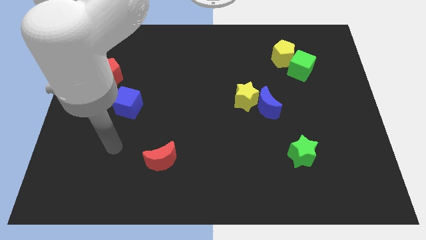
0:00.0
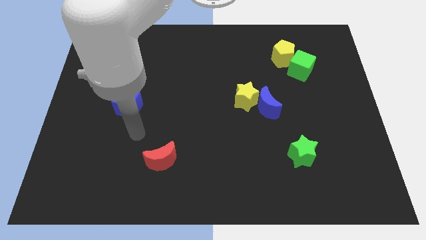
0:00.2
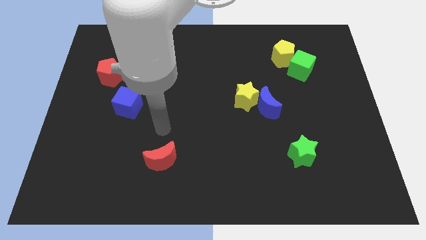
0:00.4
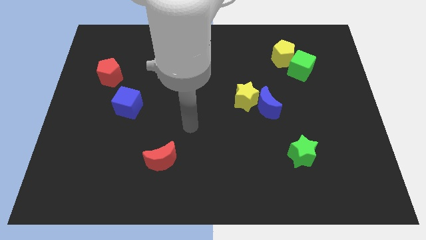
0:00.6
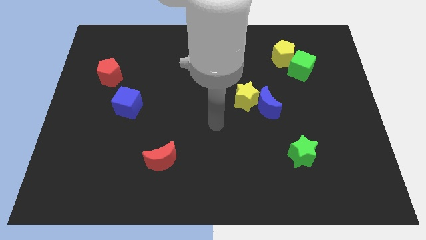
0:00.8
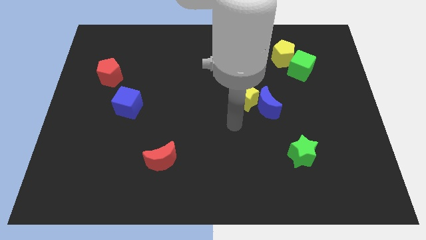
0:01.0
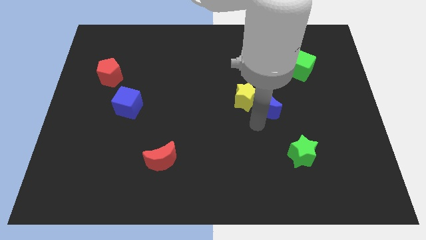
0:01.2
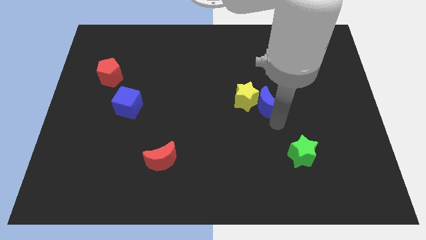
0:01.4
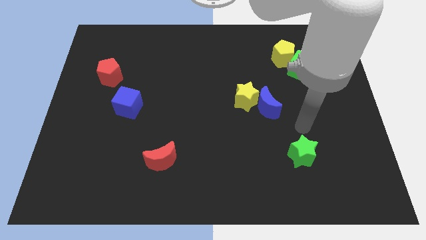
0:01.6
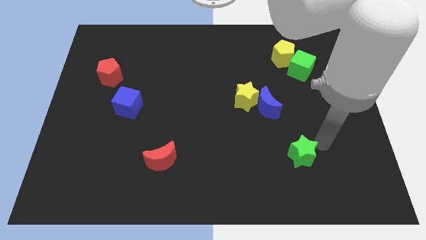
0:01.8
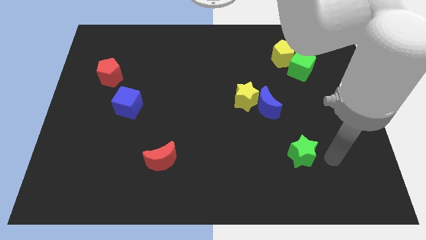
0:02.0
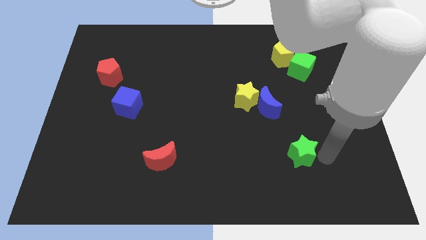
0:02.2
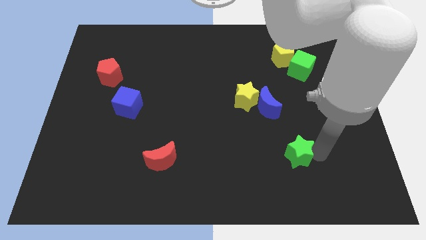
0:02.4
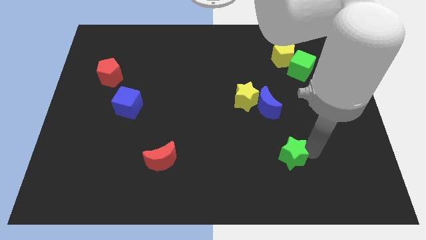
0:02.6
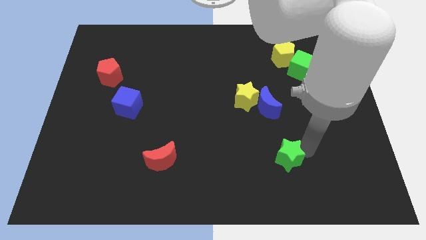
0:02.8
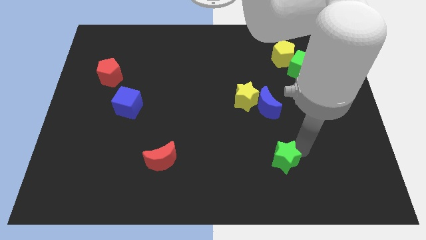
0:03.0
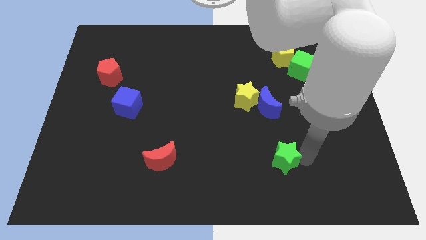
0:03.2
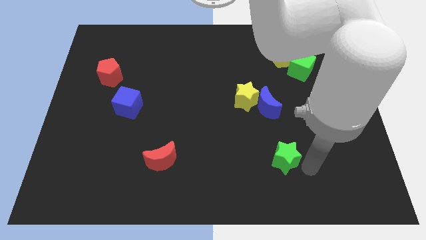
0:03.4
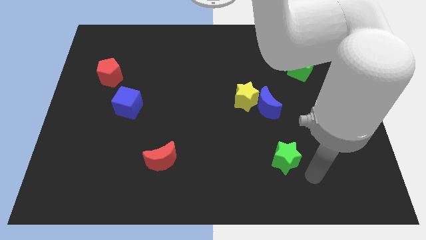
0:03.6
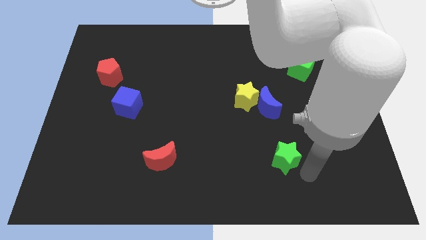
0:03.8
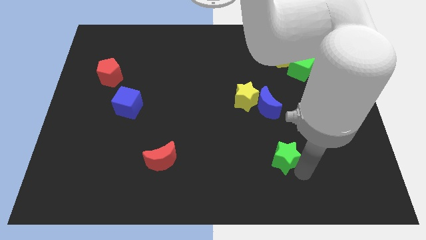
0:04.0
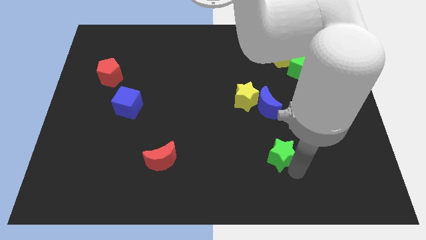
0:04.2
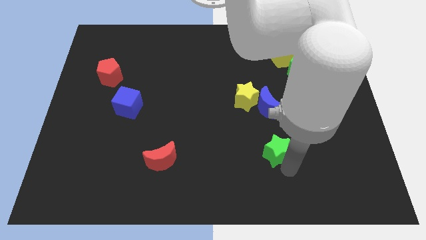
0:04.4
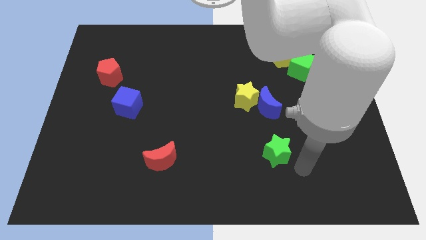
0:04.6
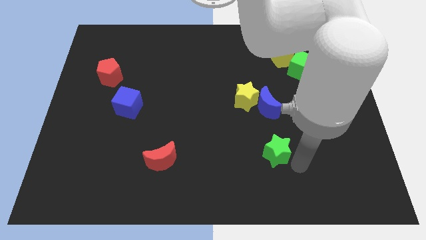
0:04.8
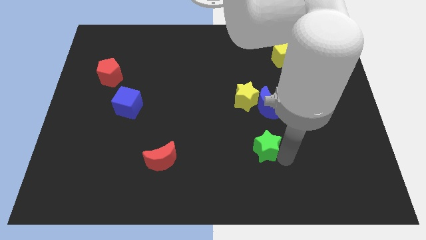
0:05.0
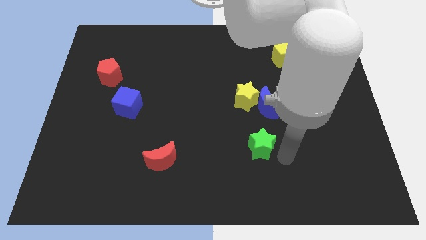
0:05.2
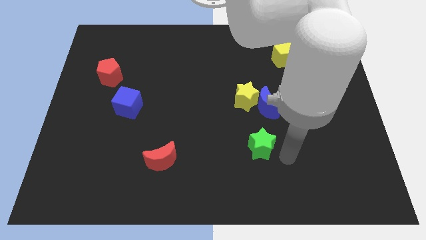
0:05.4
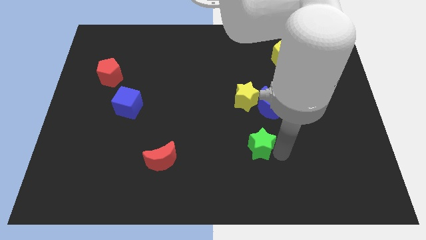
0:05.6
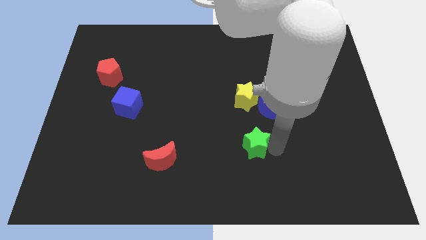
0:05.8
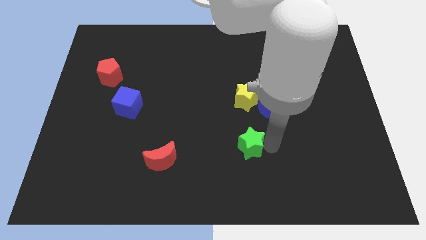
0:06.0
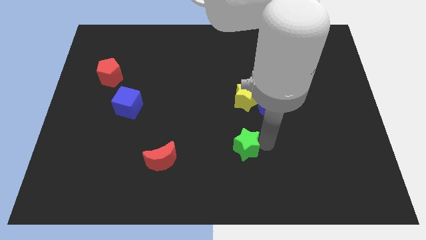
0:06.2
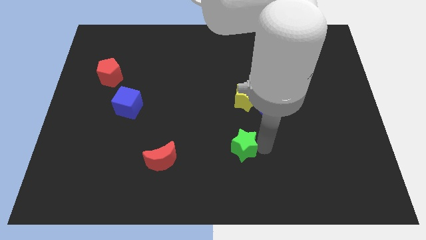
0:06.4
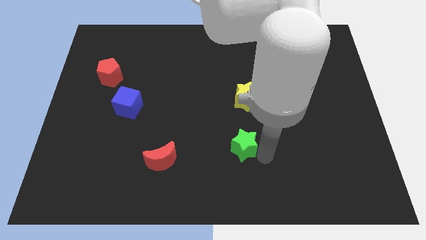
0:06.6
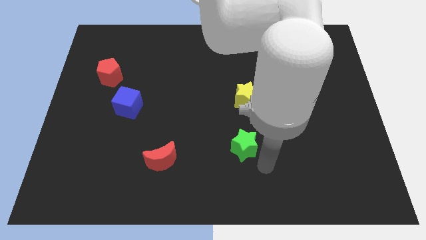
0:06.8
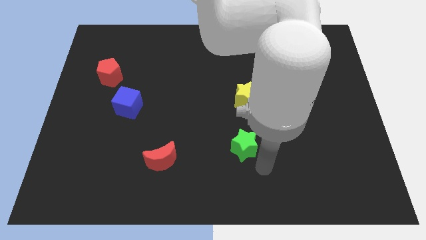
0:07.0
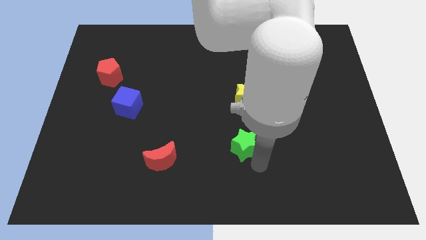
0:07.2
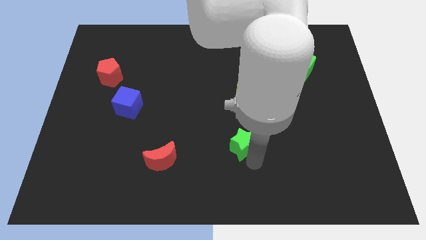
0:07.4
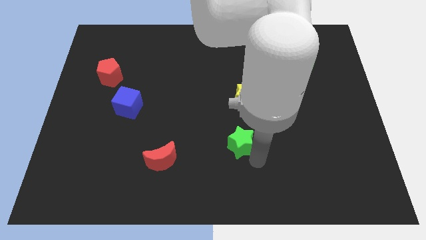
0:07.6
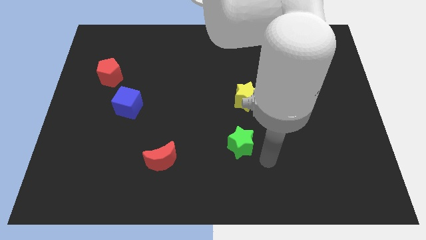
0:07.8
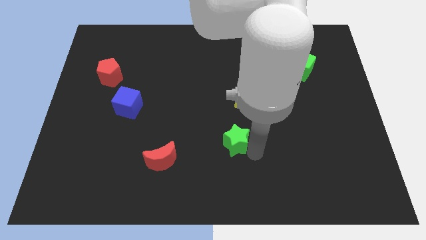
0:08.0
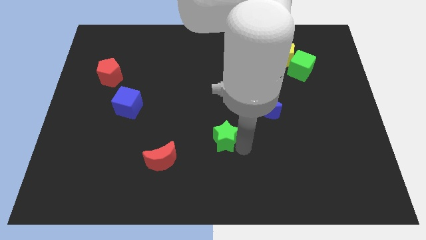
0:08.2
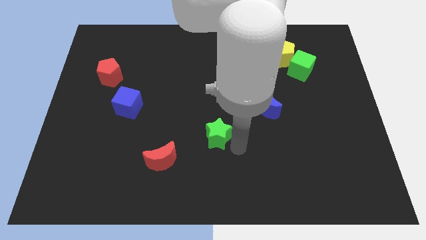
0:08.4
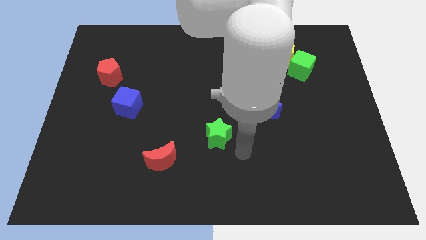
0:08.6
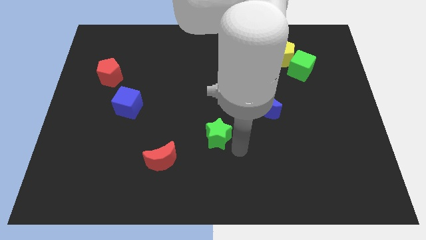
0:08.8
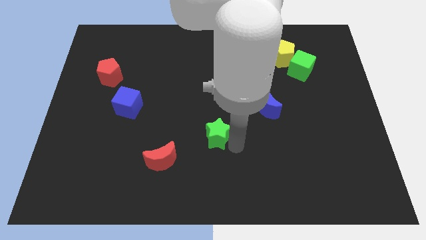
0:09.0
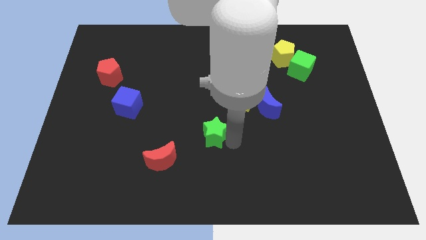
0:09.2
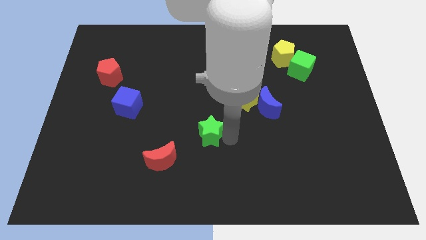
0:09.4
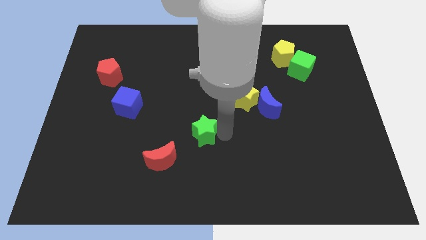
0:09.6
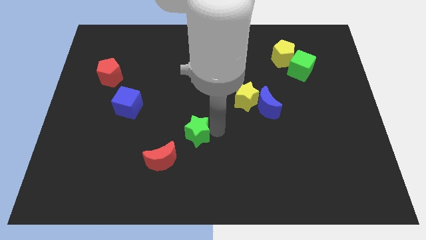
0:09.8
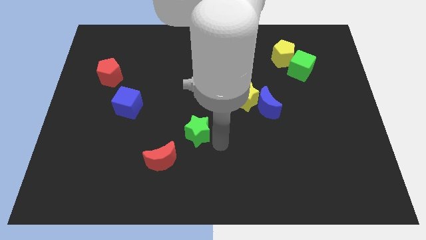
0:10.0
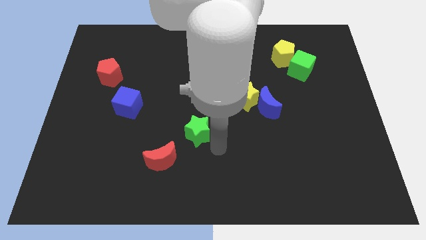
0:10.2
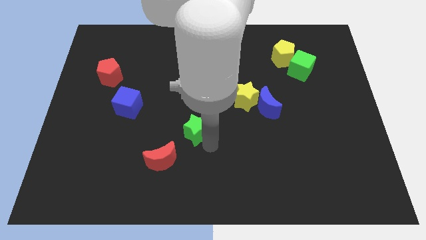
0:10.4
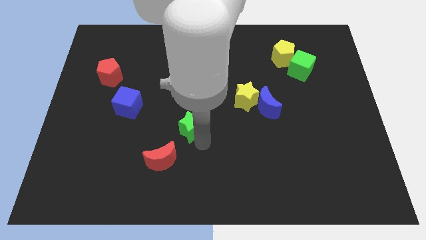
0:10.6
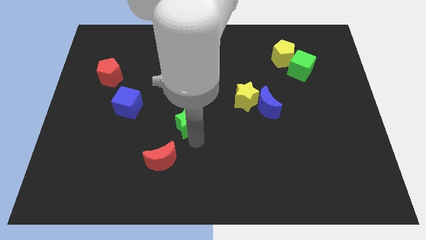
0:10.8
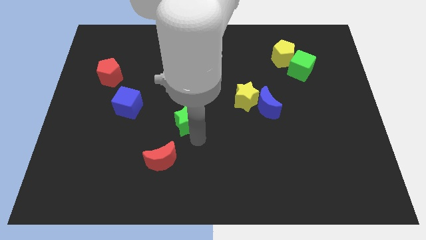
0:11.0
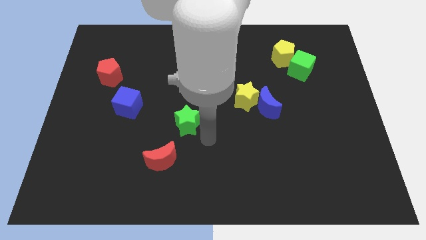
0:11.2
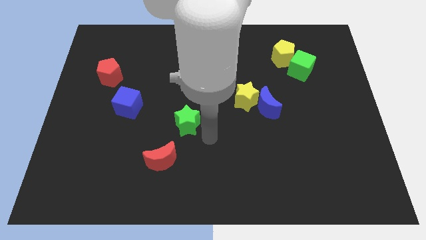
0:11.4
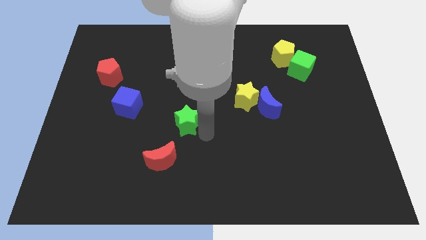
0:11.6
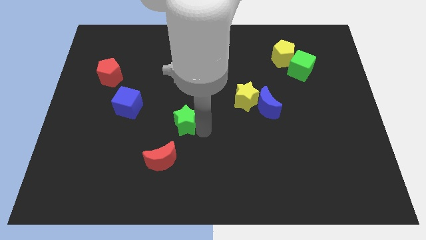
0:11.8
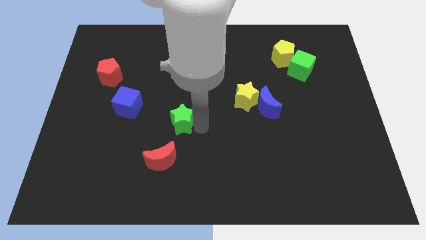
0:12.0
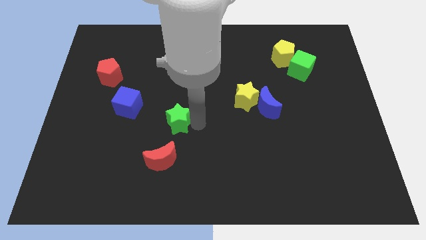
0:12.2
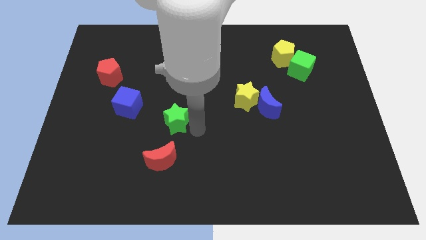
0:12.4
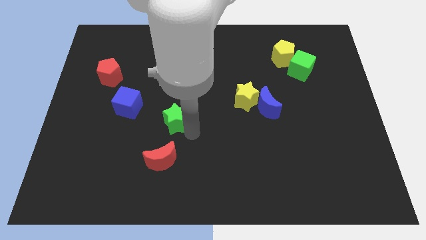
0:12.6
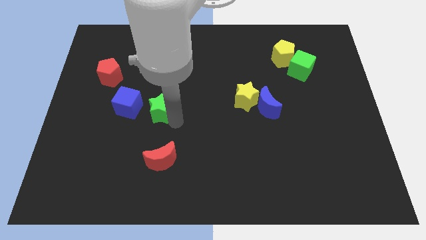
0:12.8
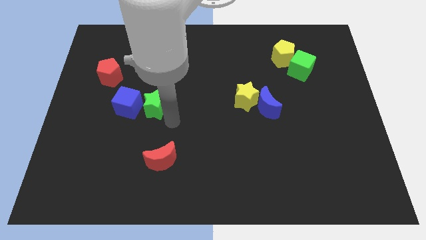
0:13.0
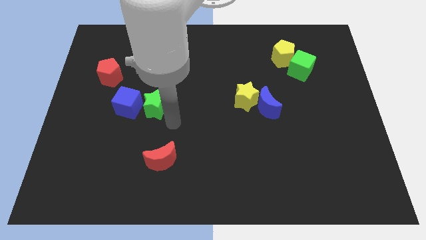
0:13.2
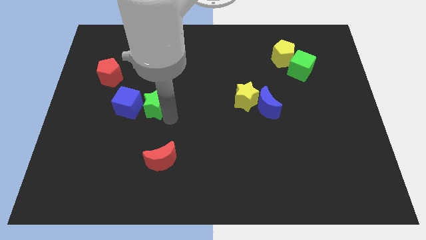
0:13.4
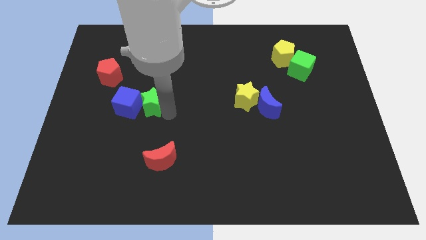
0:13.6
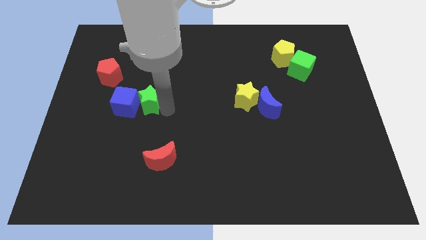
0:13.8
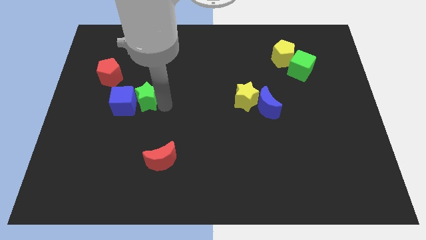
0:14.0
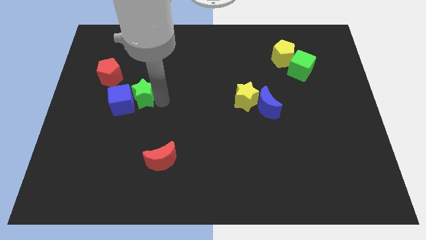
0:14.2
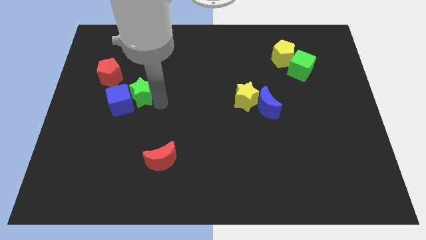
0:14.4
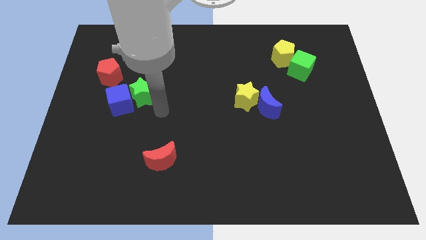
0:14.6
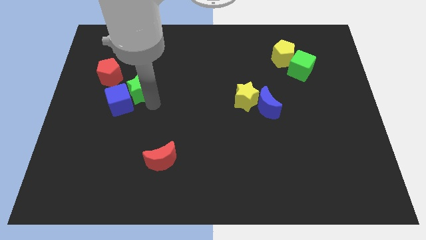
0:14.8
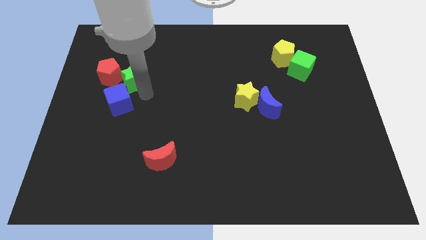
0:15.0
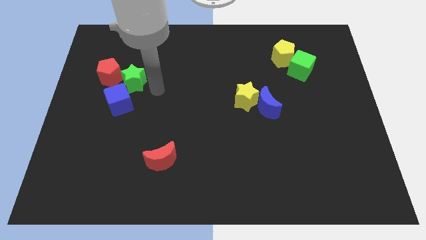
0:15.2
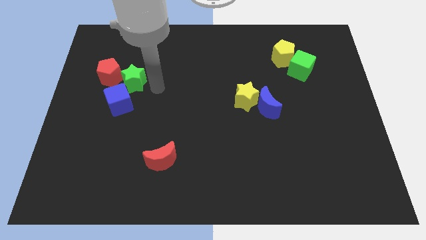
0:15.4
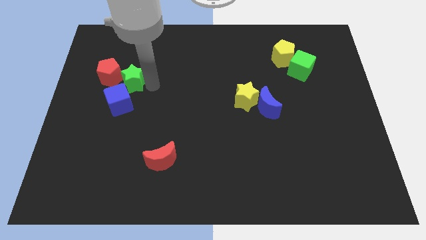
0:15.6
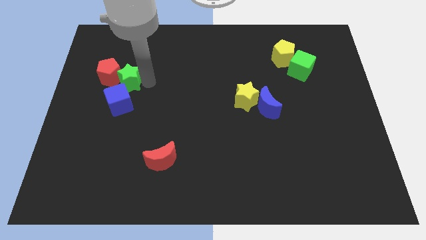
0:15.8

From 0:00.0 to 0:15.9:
push the green star to the red pentagon
